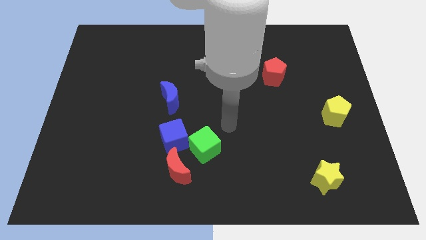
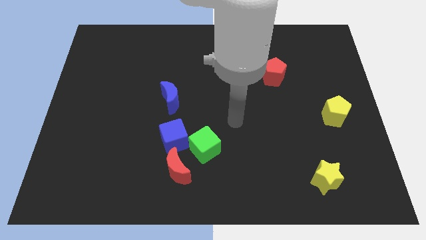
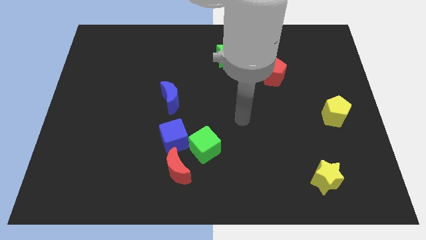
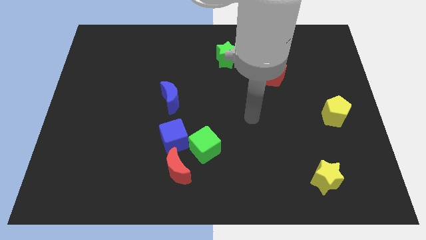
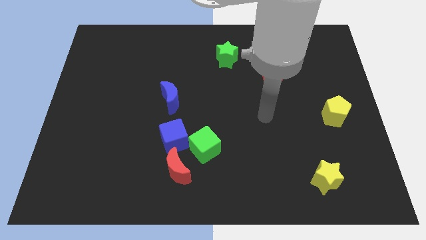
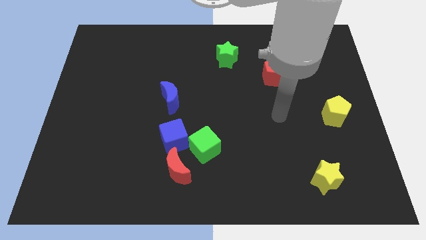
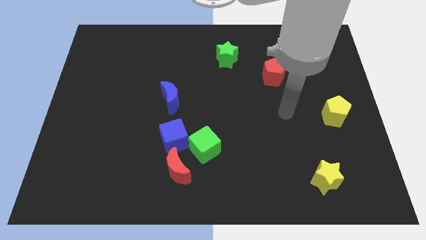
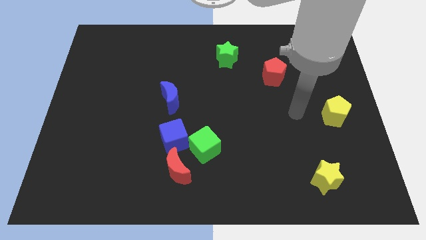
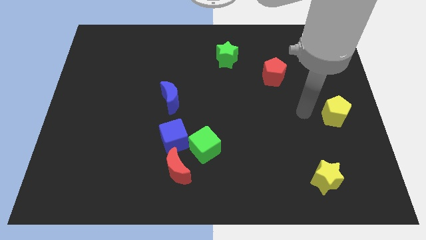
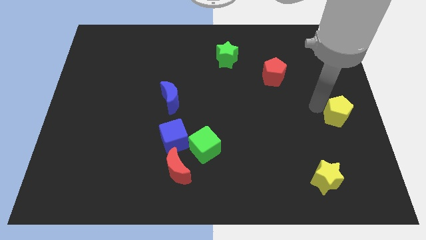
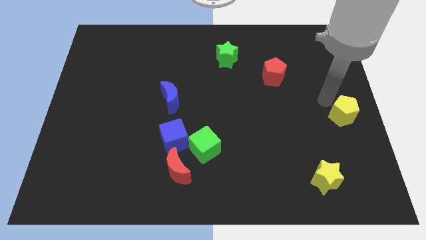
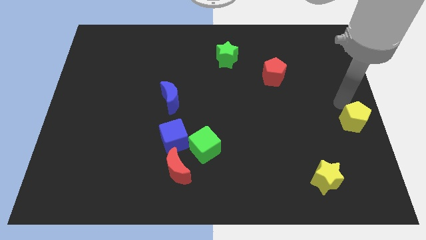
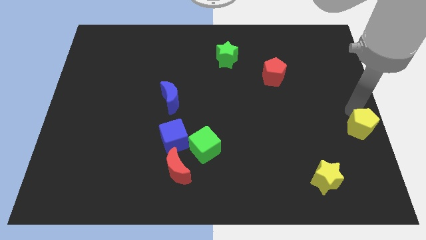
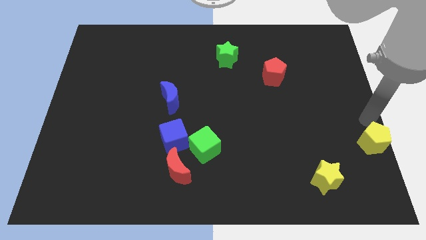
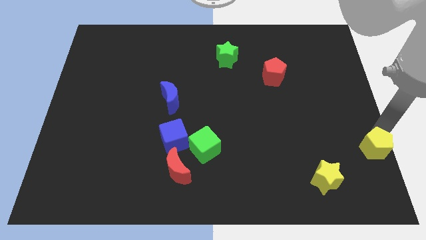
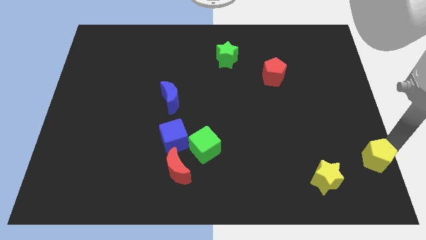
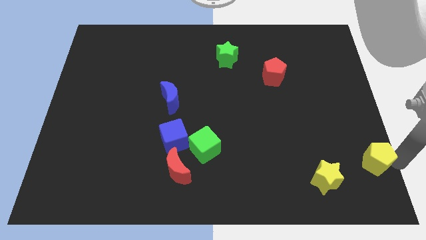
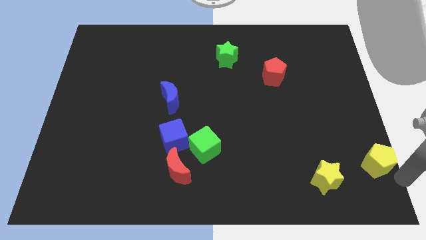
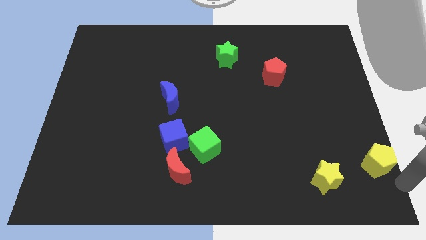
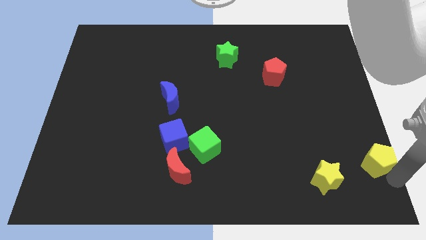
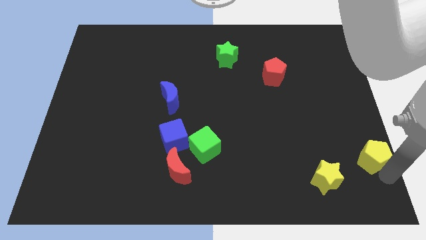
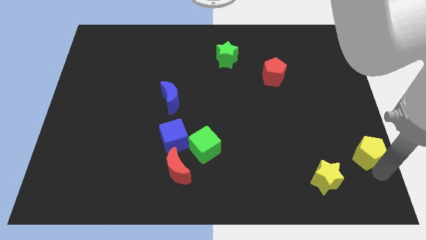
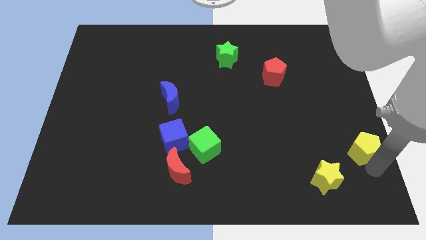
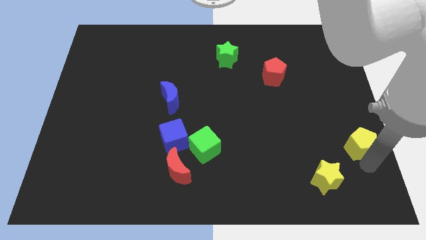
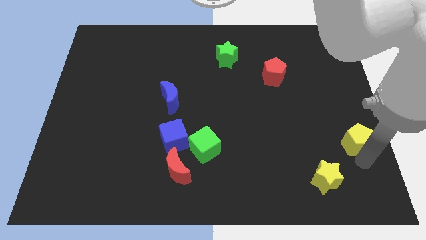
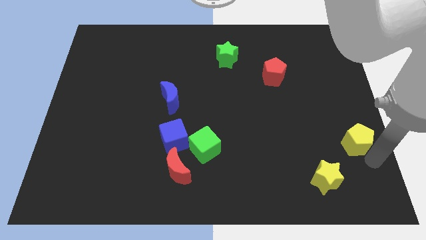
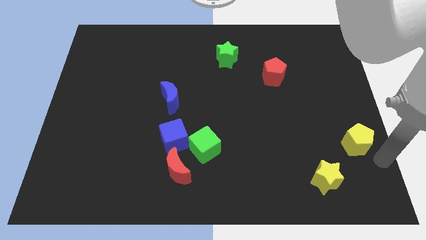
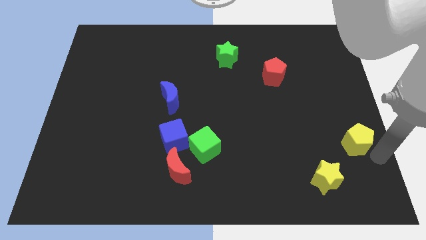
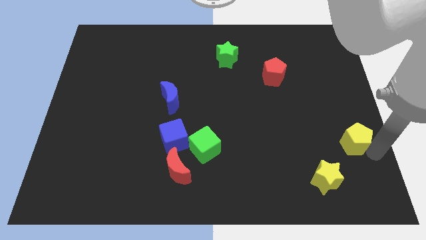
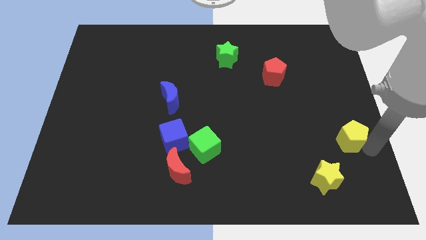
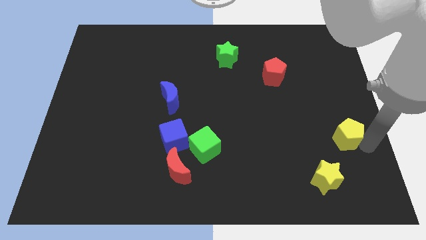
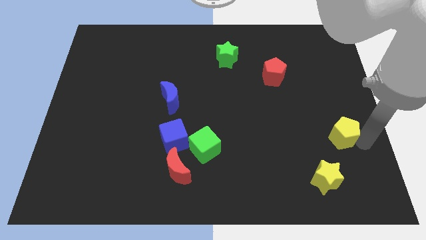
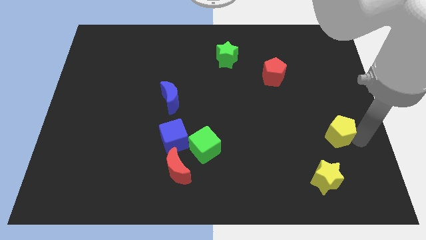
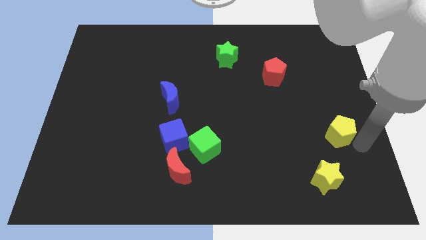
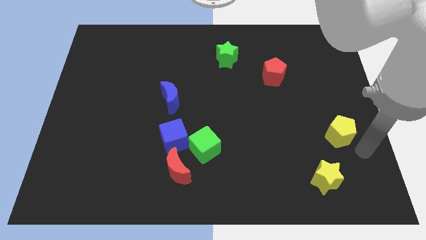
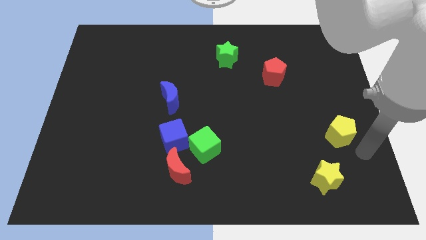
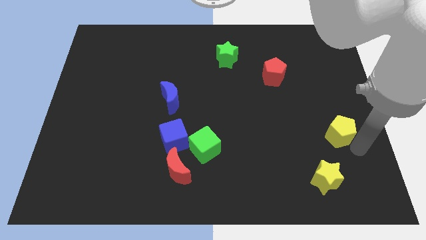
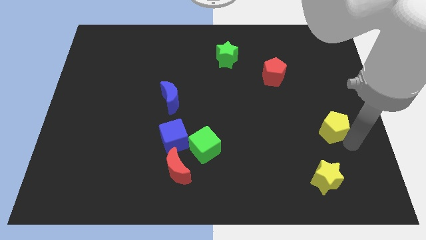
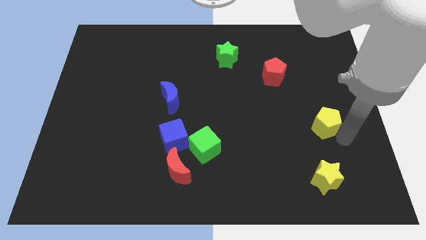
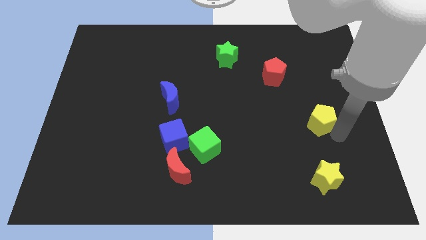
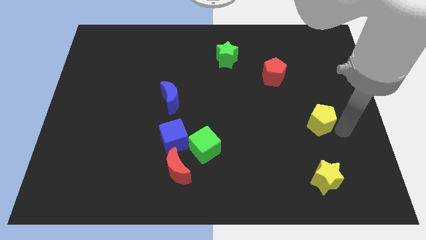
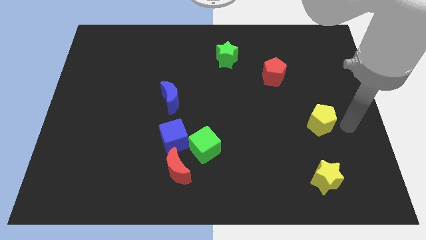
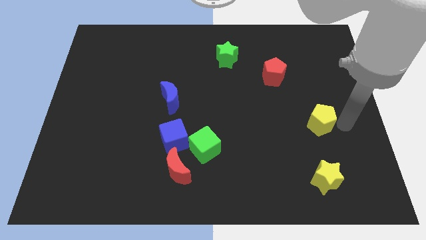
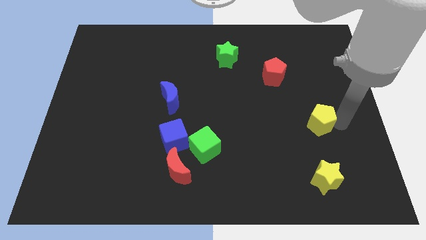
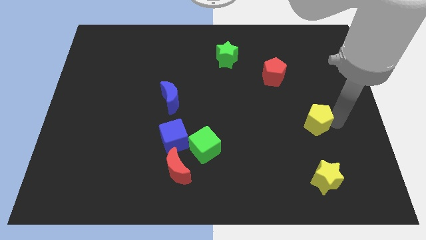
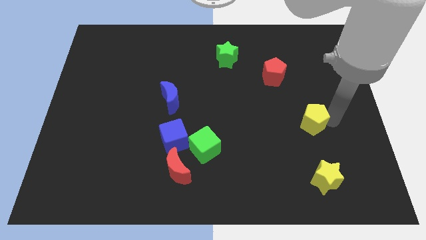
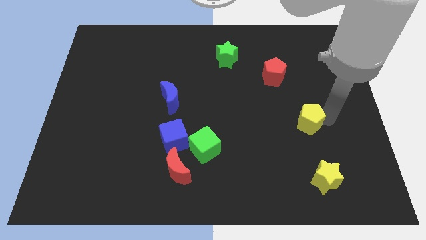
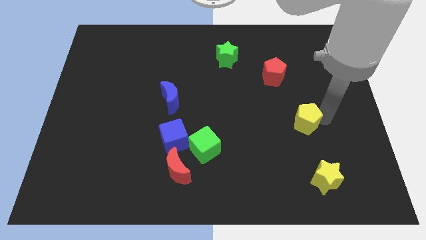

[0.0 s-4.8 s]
move the yellow pentagon a little bit to the left

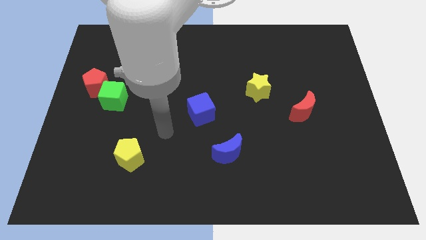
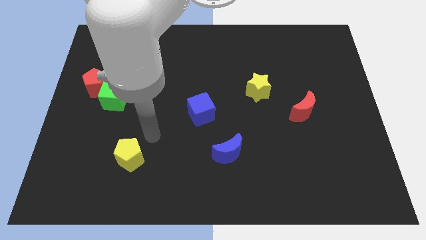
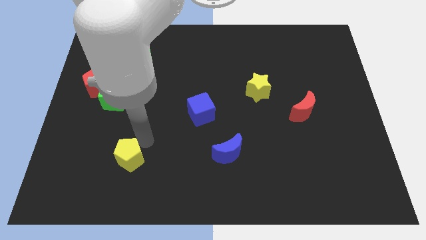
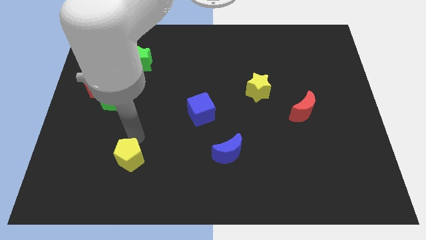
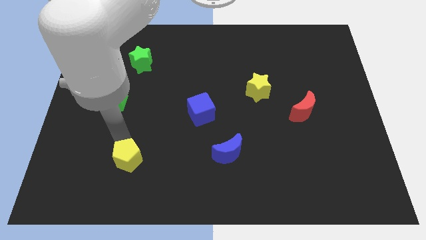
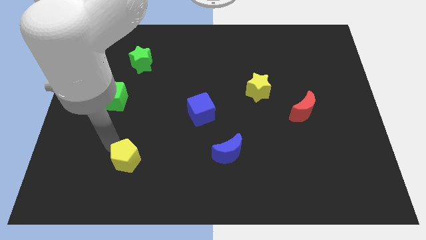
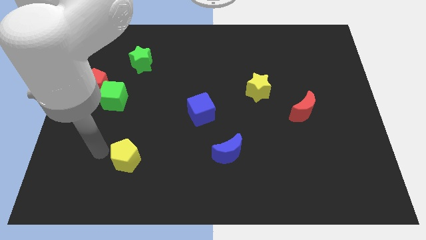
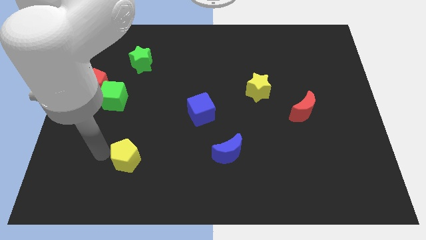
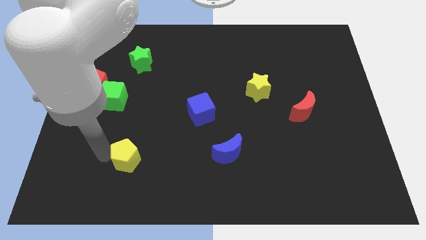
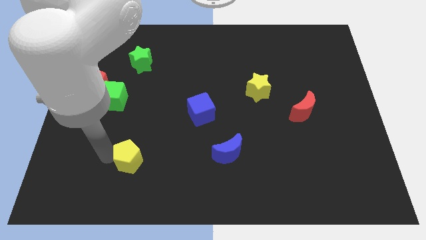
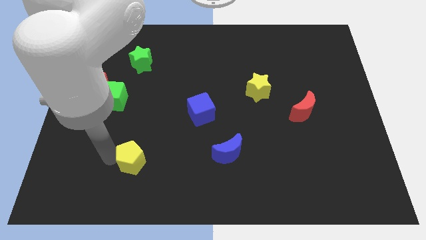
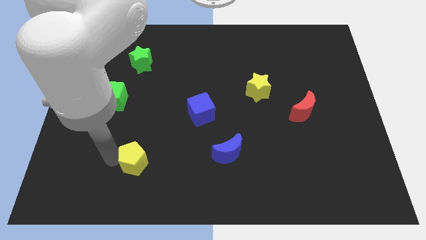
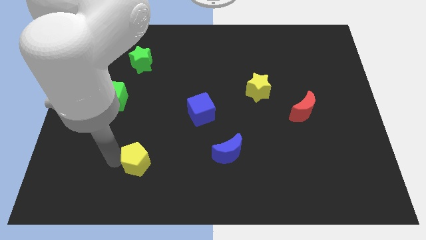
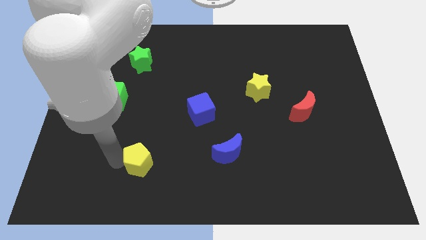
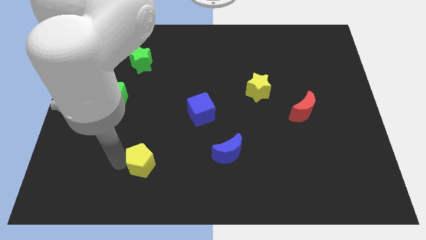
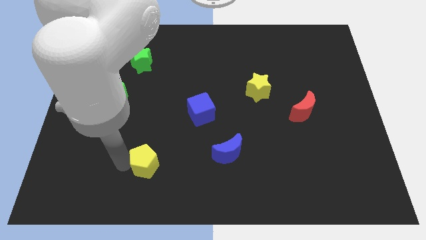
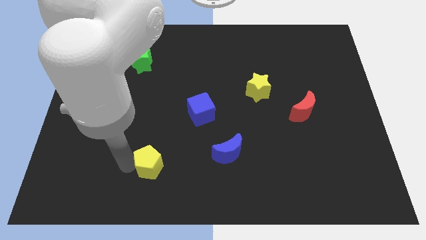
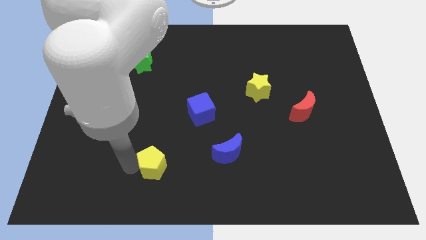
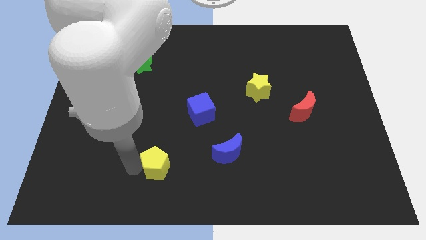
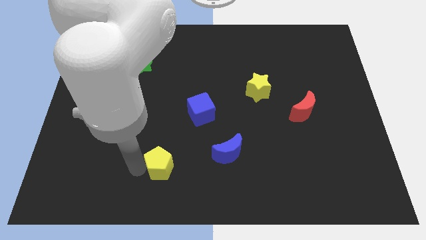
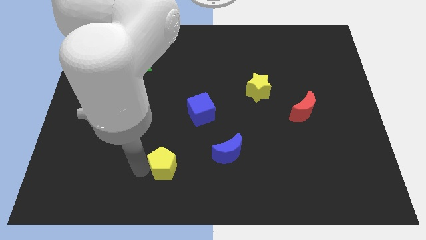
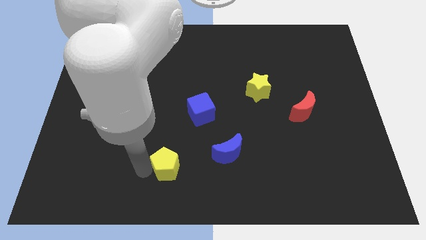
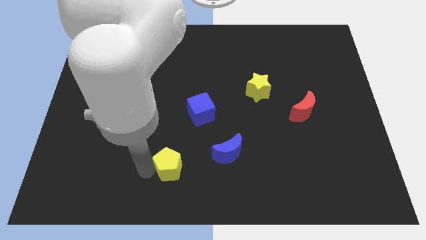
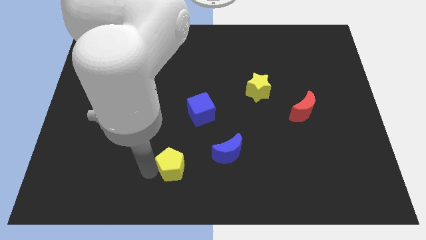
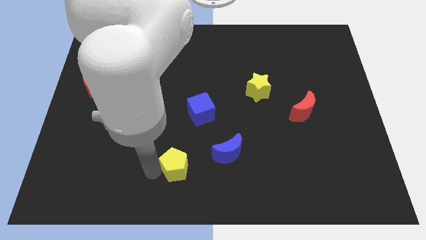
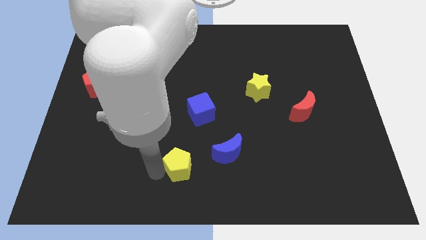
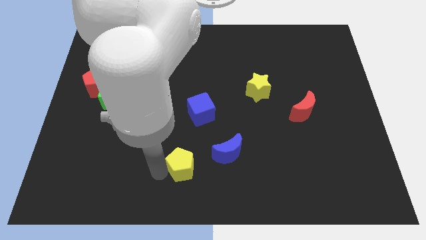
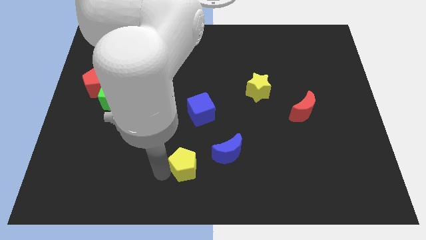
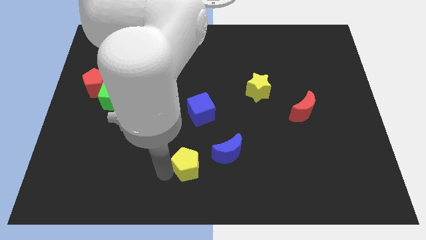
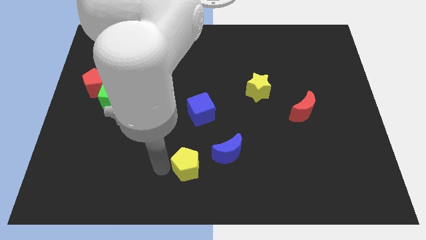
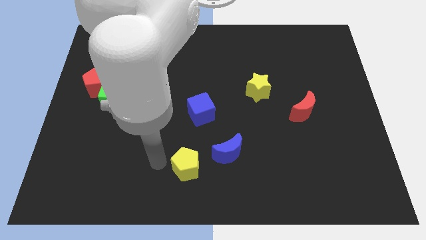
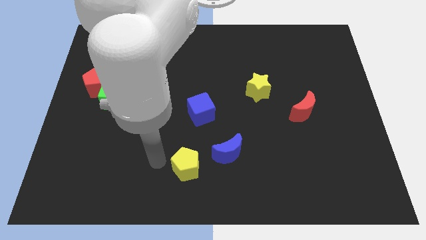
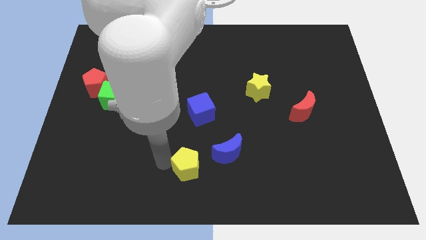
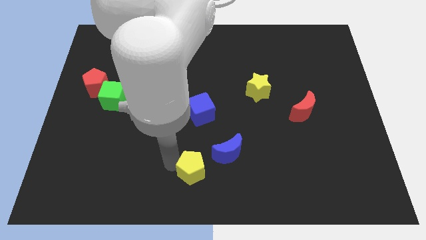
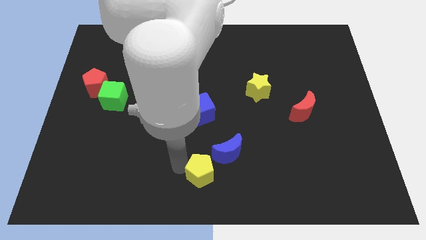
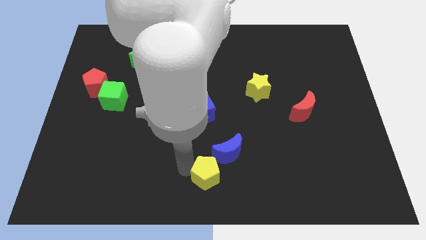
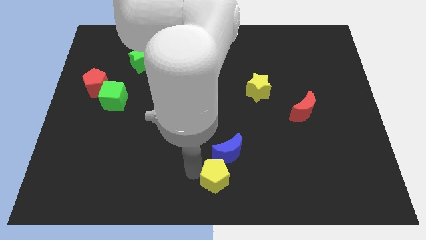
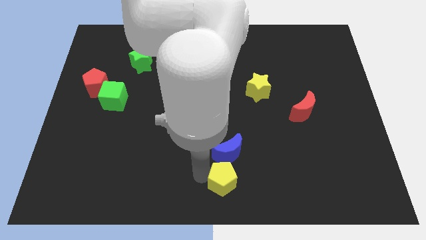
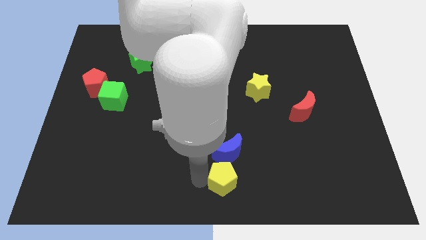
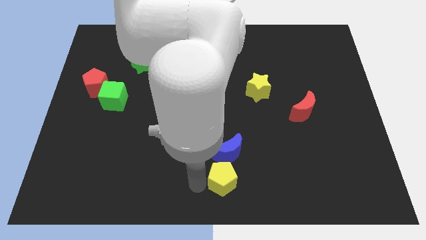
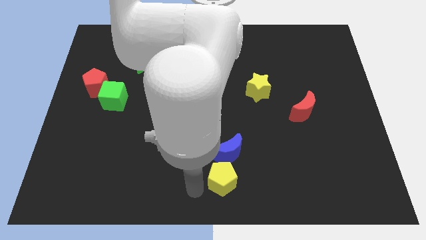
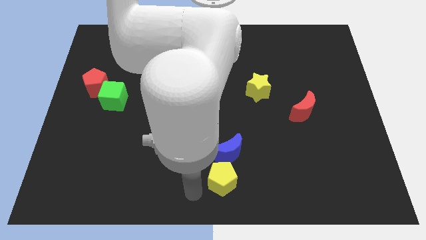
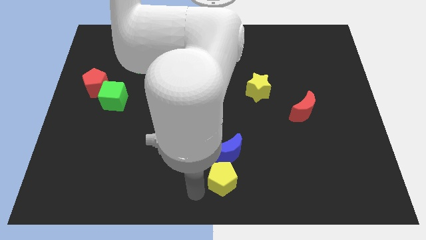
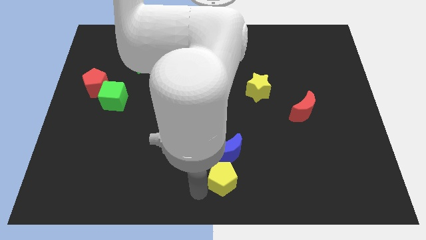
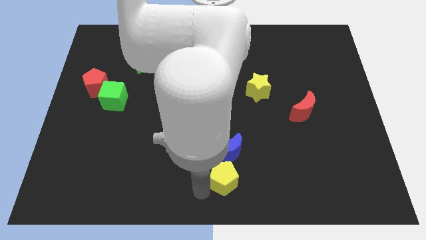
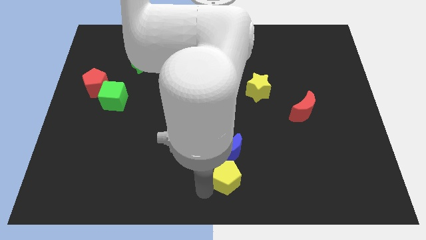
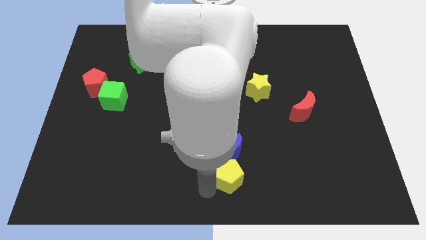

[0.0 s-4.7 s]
push the yellow pentagon right
